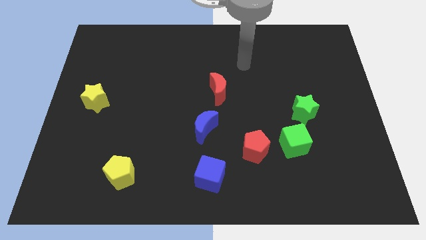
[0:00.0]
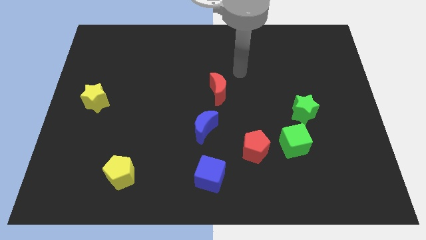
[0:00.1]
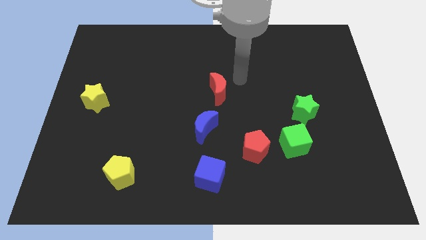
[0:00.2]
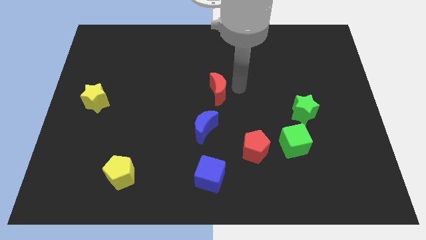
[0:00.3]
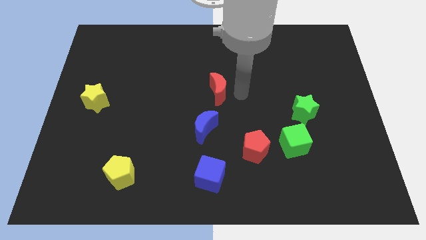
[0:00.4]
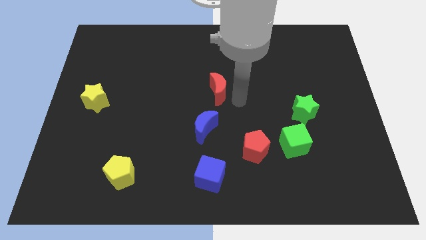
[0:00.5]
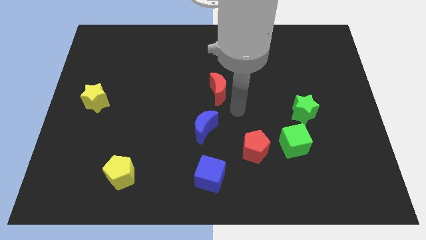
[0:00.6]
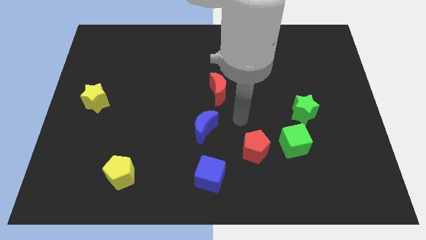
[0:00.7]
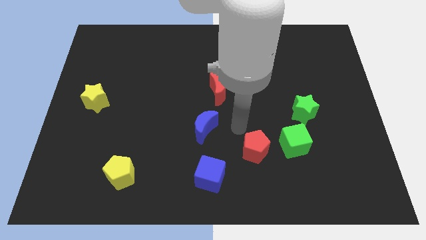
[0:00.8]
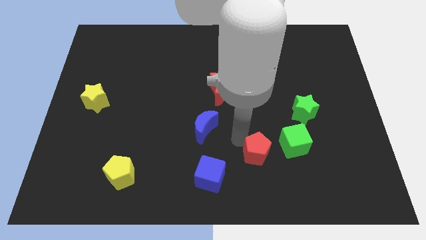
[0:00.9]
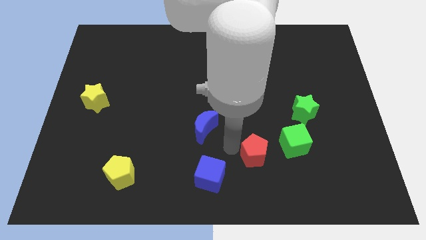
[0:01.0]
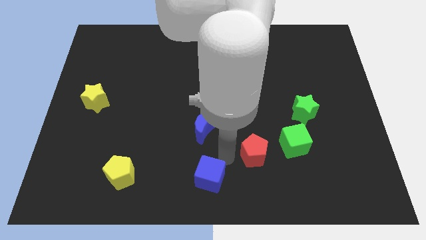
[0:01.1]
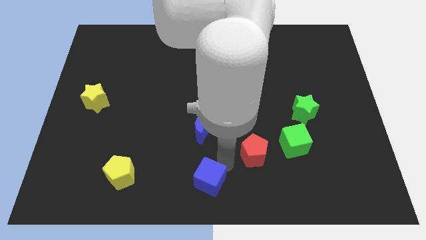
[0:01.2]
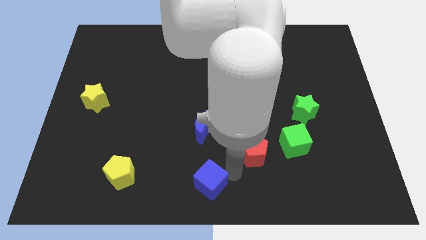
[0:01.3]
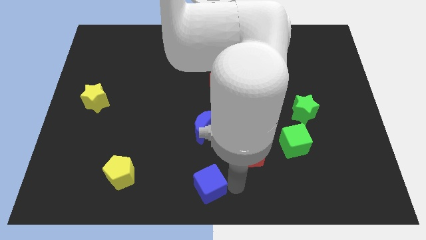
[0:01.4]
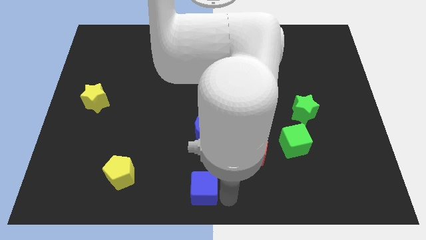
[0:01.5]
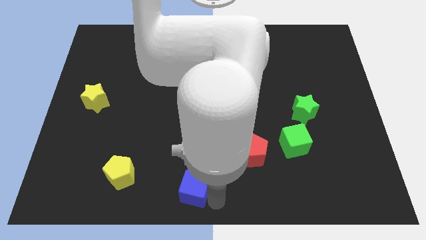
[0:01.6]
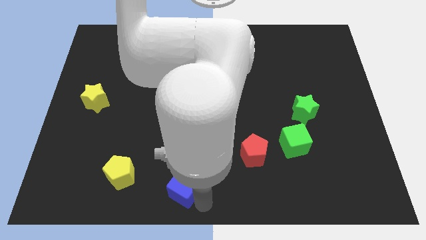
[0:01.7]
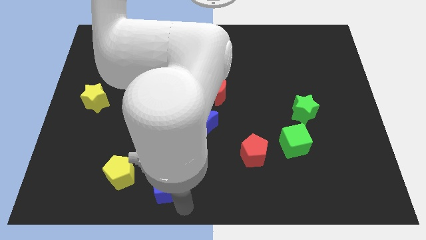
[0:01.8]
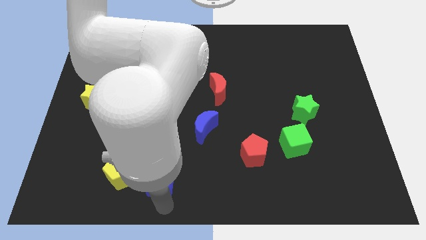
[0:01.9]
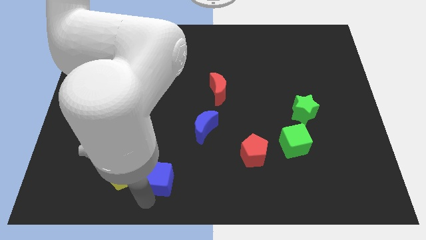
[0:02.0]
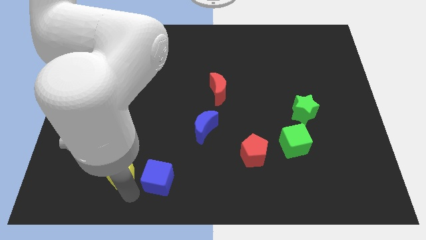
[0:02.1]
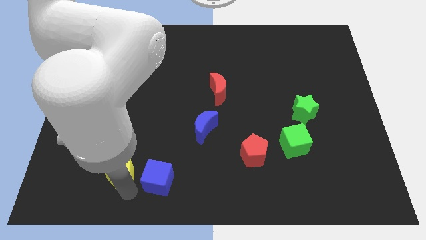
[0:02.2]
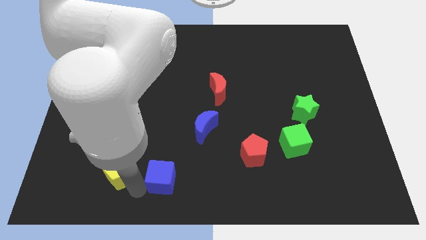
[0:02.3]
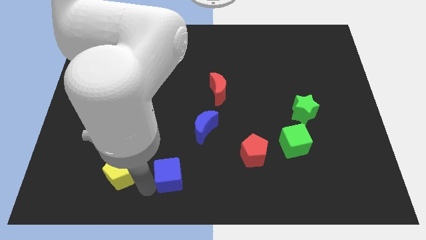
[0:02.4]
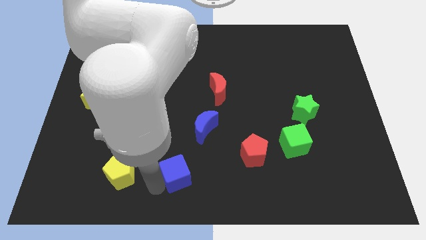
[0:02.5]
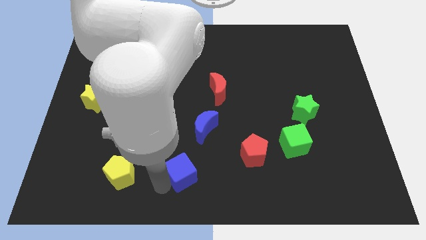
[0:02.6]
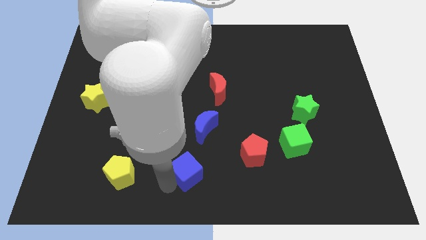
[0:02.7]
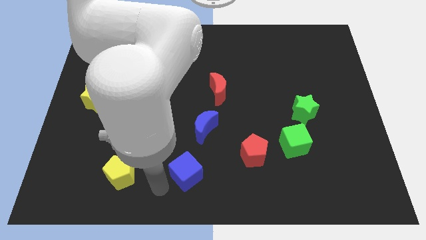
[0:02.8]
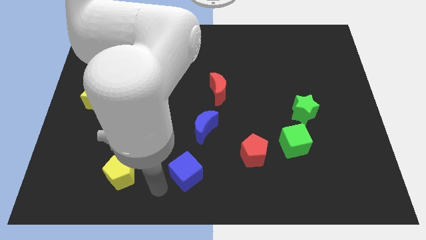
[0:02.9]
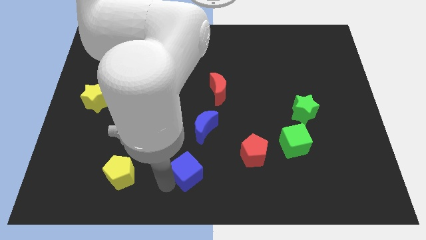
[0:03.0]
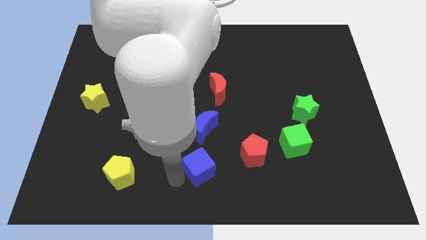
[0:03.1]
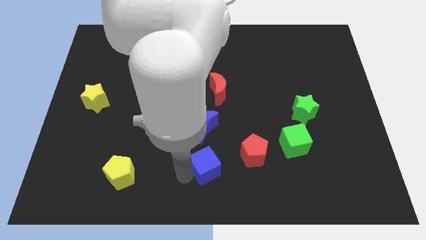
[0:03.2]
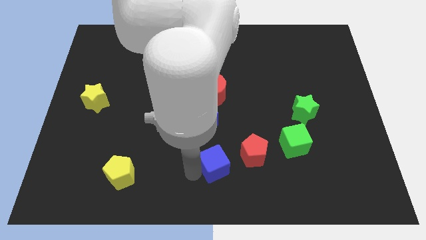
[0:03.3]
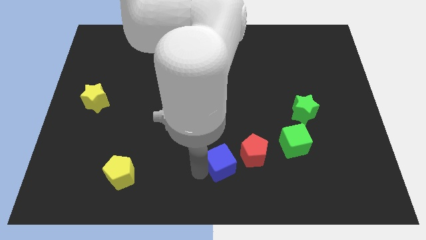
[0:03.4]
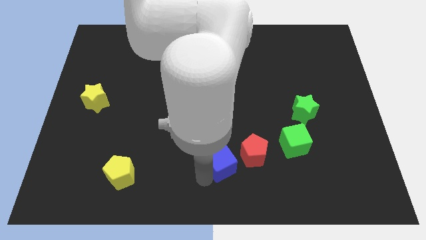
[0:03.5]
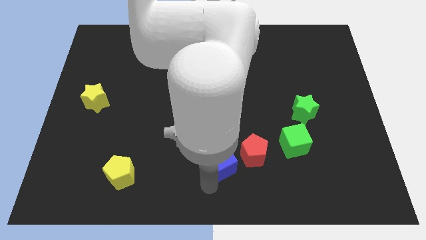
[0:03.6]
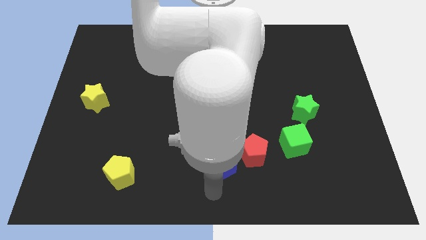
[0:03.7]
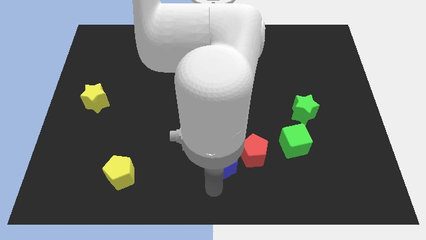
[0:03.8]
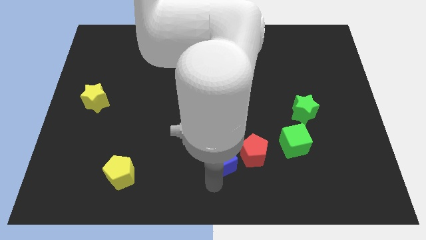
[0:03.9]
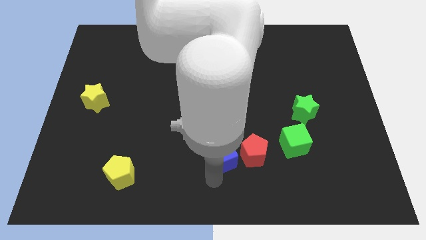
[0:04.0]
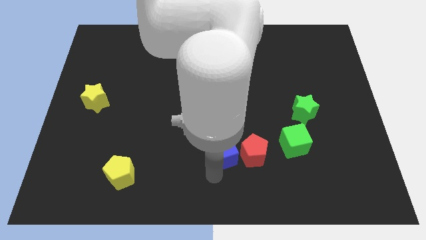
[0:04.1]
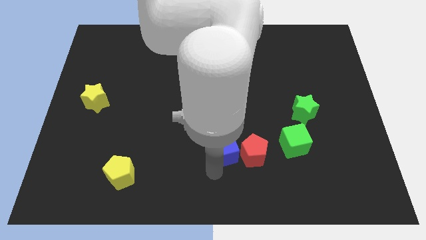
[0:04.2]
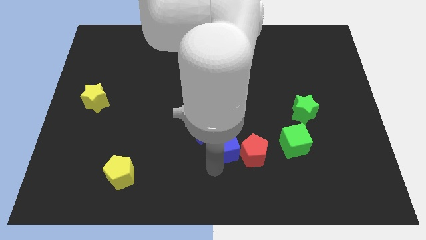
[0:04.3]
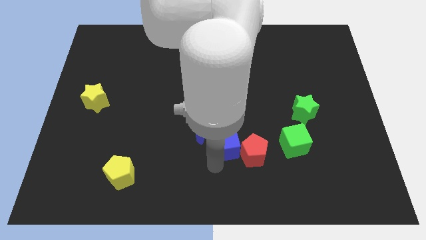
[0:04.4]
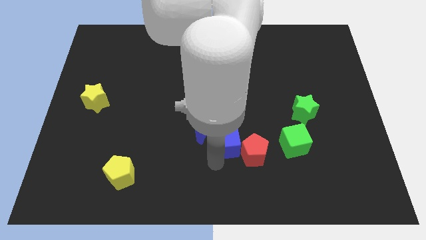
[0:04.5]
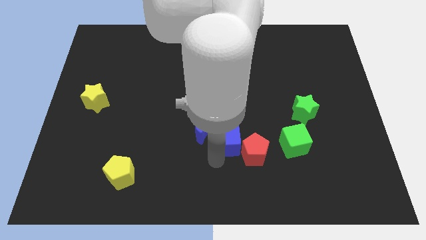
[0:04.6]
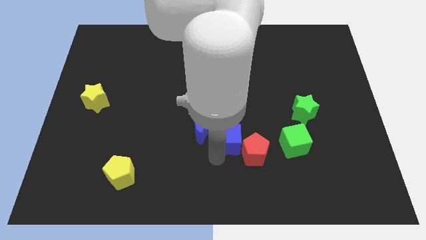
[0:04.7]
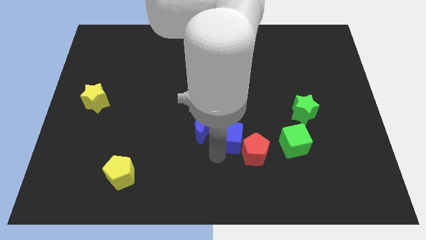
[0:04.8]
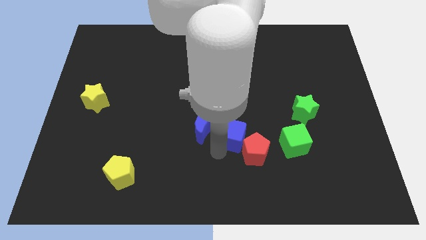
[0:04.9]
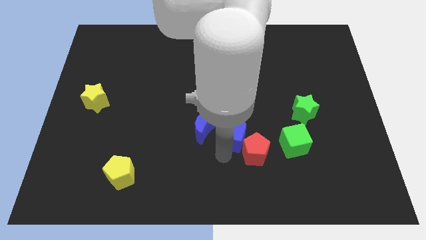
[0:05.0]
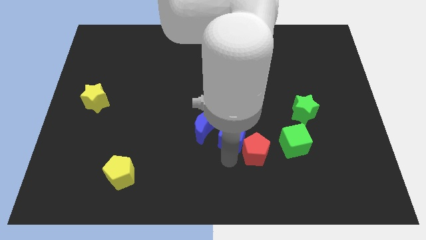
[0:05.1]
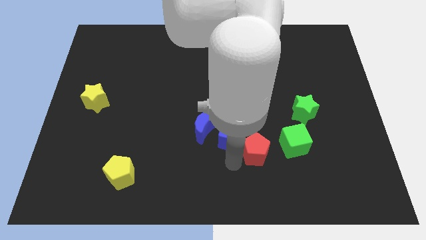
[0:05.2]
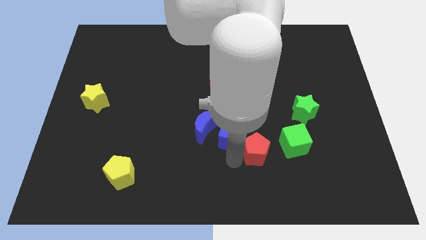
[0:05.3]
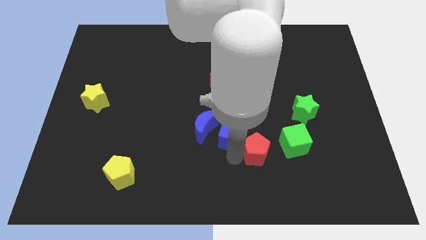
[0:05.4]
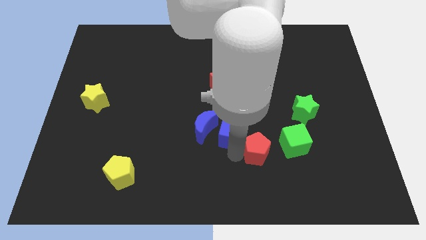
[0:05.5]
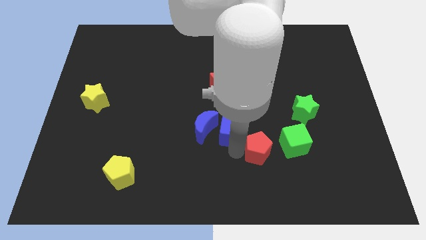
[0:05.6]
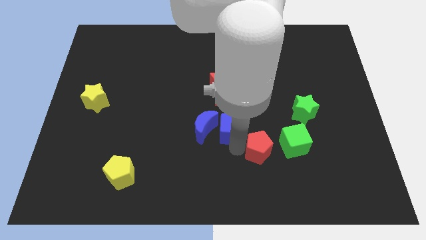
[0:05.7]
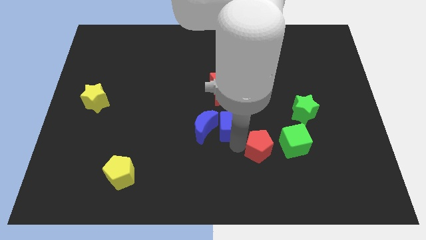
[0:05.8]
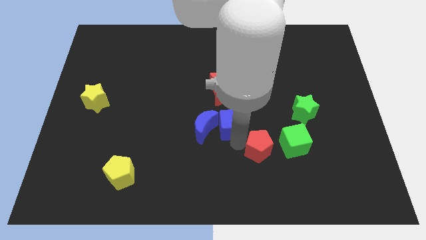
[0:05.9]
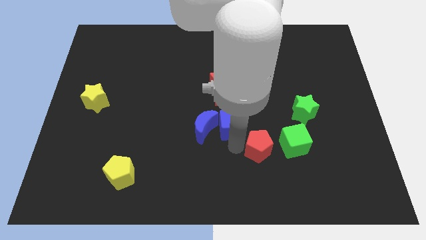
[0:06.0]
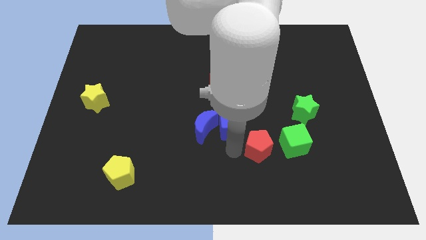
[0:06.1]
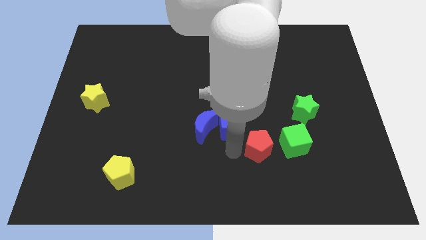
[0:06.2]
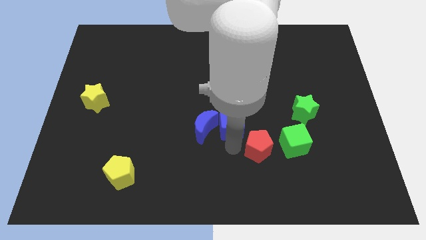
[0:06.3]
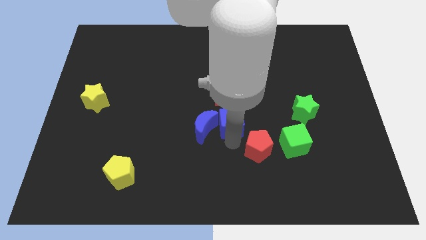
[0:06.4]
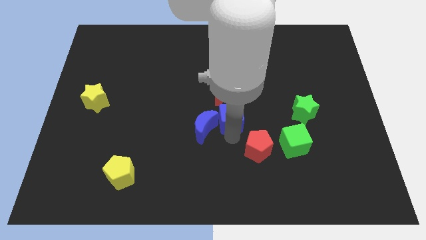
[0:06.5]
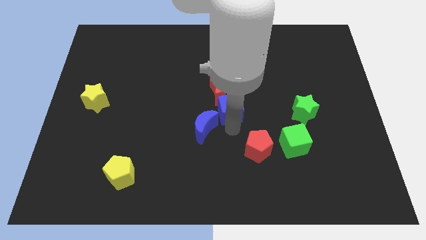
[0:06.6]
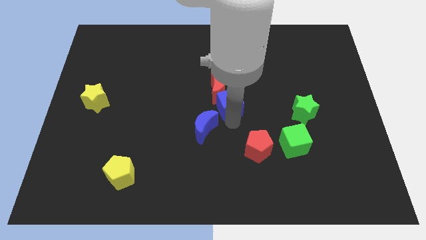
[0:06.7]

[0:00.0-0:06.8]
push the blue cube close to the red moon

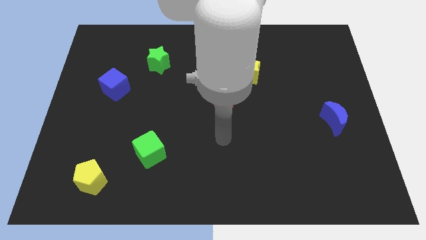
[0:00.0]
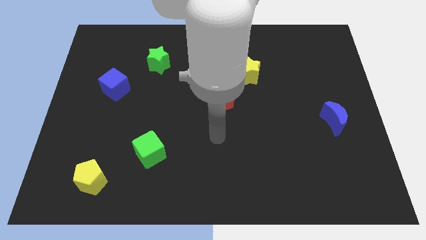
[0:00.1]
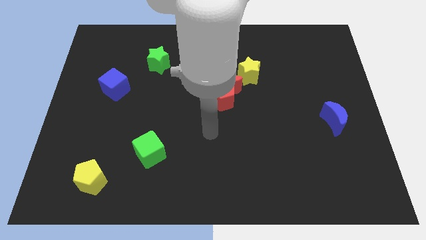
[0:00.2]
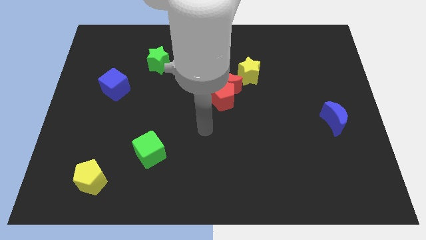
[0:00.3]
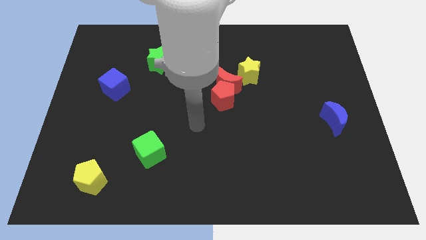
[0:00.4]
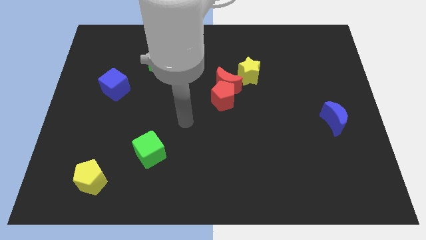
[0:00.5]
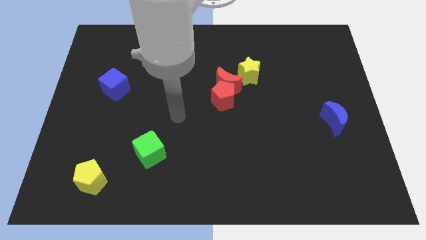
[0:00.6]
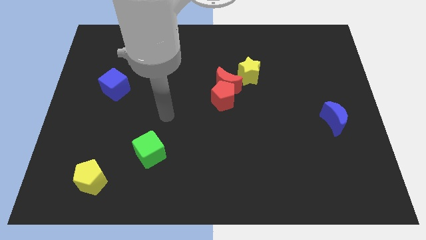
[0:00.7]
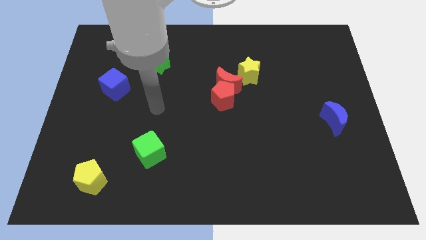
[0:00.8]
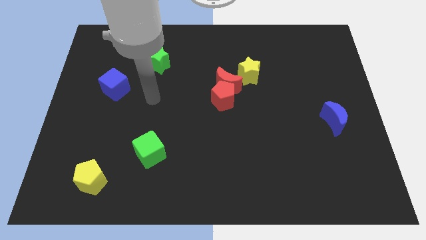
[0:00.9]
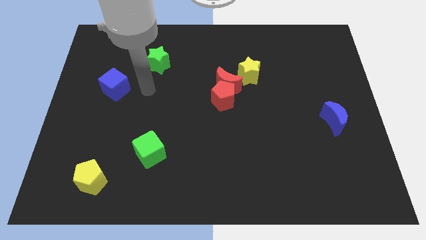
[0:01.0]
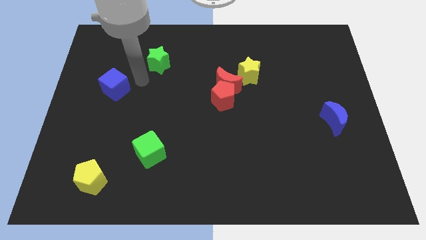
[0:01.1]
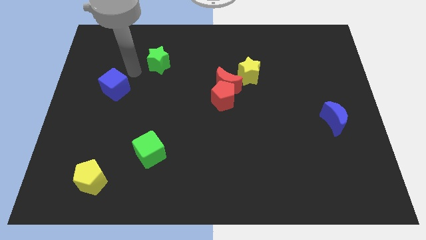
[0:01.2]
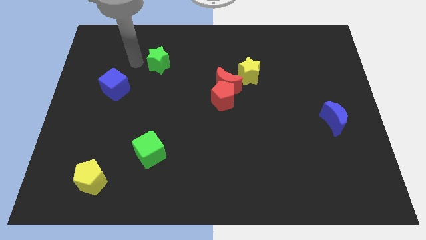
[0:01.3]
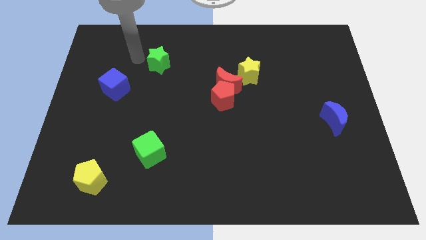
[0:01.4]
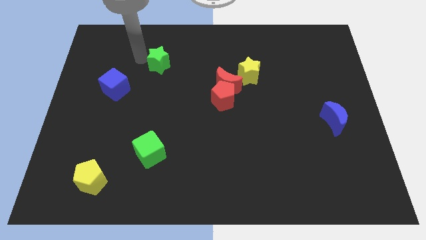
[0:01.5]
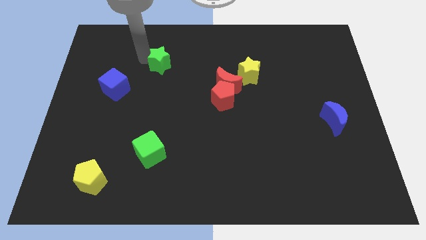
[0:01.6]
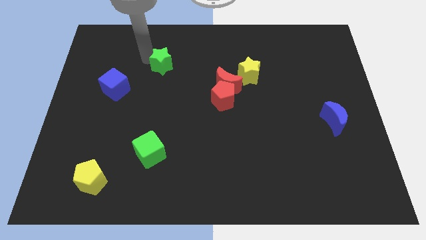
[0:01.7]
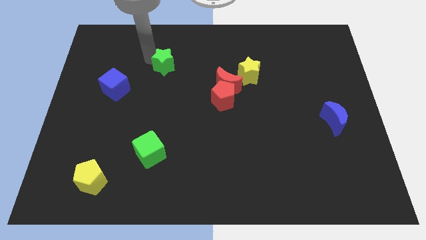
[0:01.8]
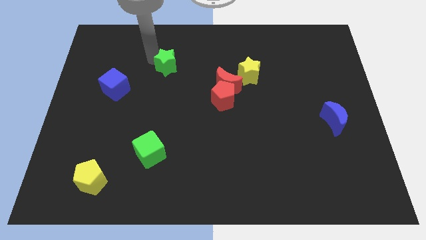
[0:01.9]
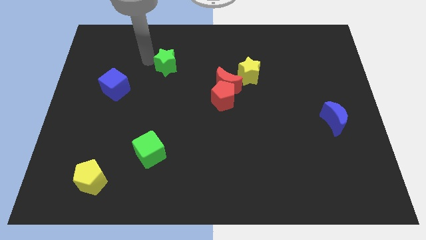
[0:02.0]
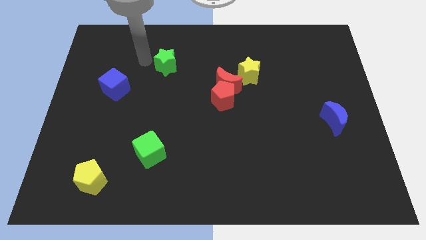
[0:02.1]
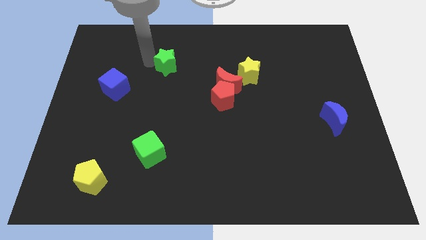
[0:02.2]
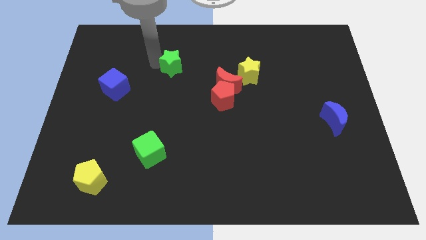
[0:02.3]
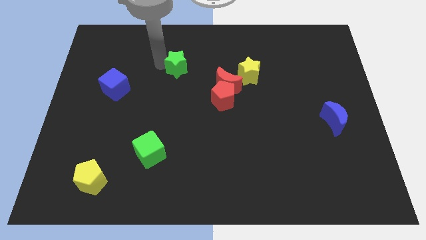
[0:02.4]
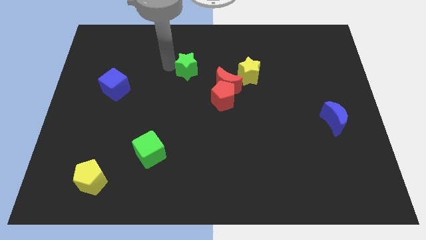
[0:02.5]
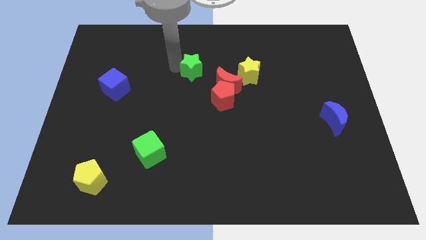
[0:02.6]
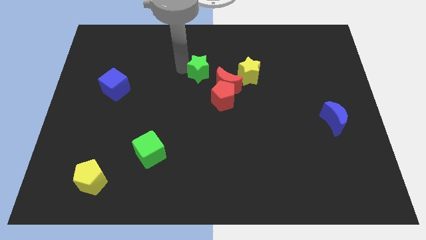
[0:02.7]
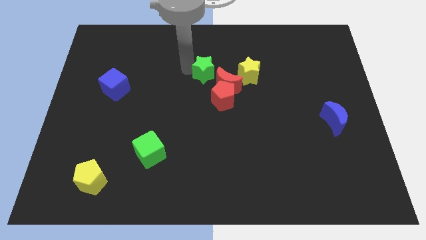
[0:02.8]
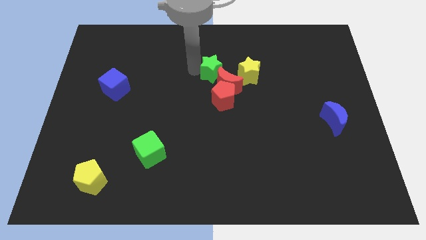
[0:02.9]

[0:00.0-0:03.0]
put the green star next to the red moon
